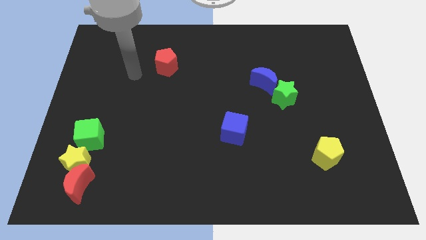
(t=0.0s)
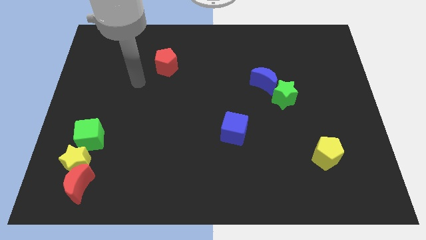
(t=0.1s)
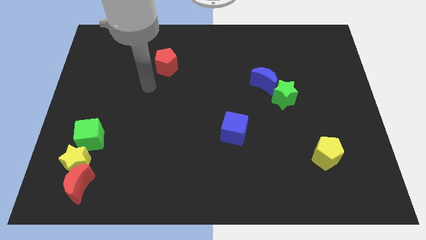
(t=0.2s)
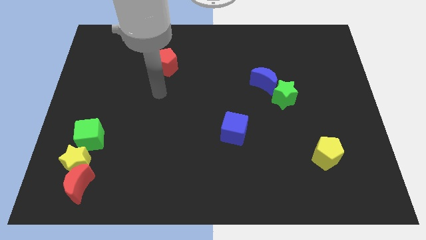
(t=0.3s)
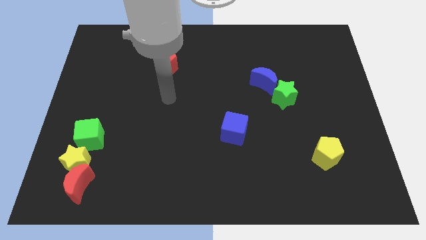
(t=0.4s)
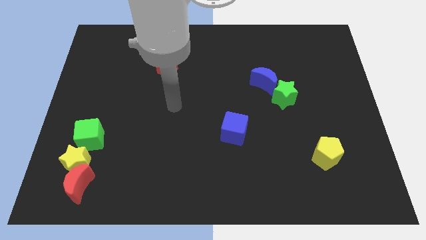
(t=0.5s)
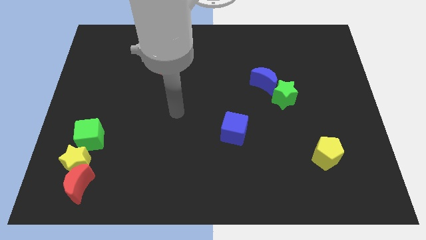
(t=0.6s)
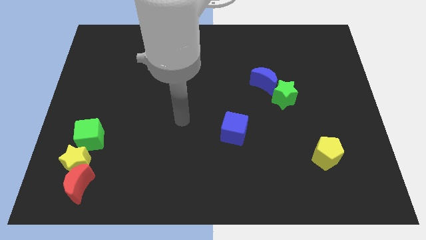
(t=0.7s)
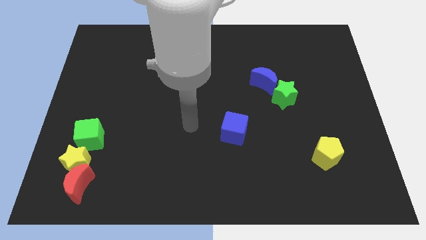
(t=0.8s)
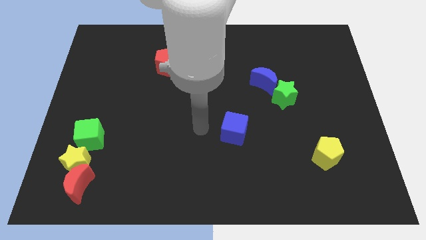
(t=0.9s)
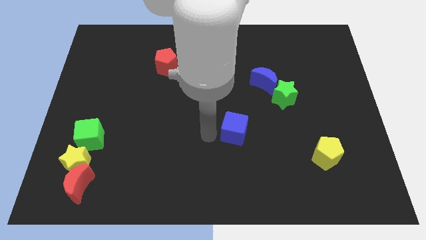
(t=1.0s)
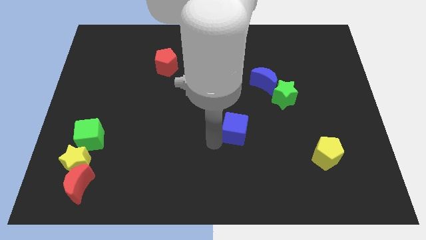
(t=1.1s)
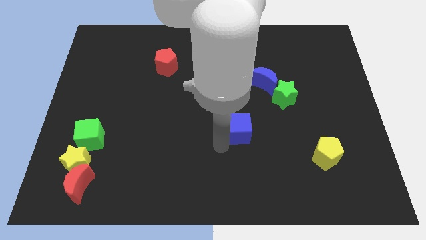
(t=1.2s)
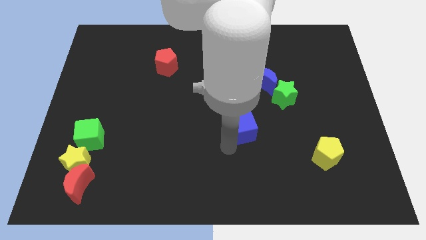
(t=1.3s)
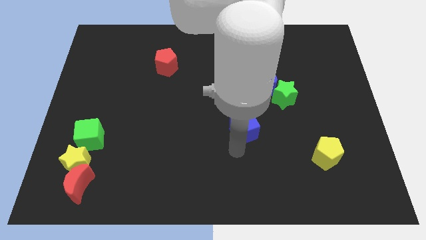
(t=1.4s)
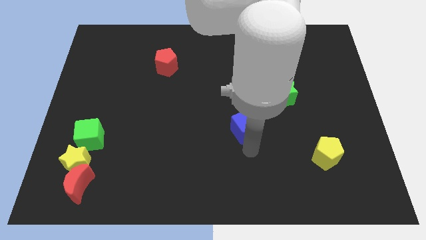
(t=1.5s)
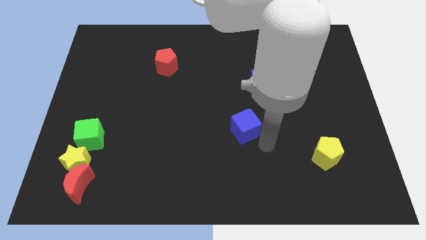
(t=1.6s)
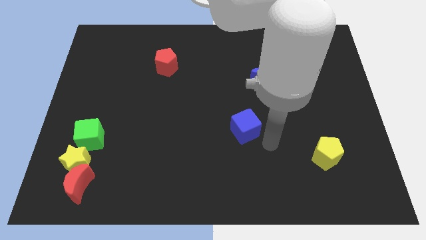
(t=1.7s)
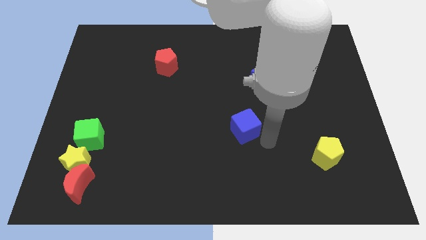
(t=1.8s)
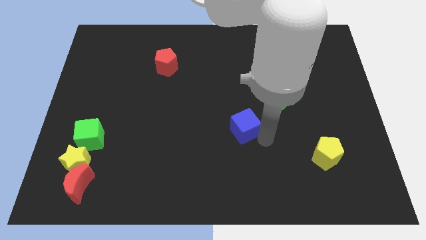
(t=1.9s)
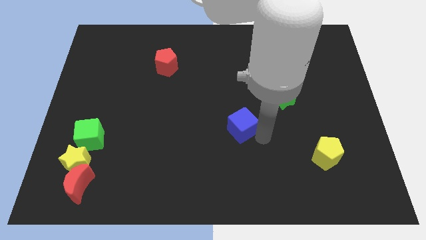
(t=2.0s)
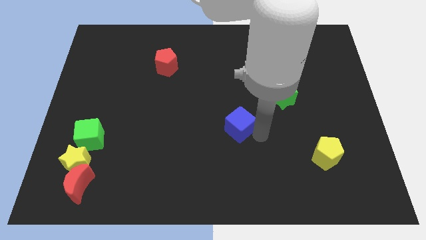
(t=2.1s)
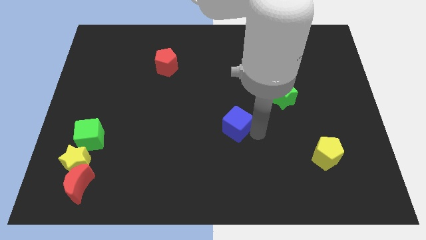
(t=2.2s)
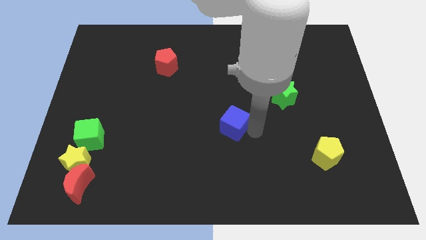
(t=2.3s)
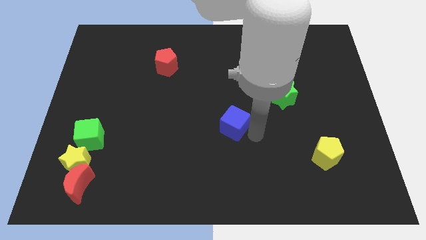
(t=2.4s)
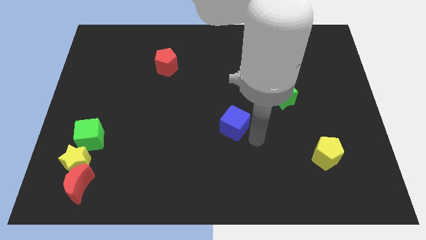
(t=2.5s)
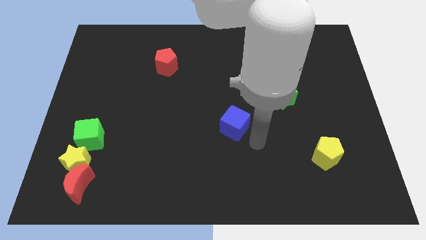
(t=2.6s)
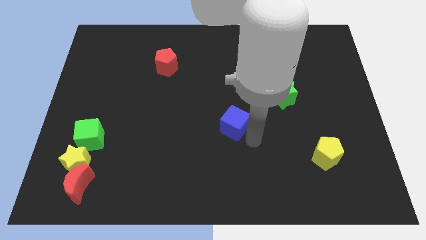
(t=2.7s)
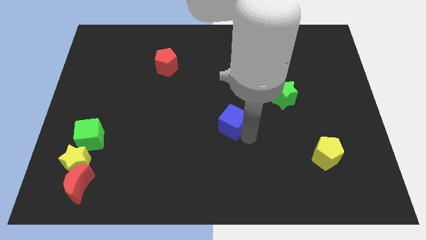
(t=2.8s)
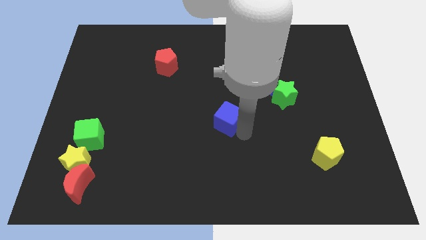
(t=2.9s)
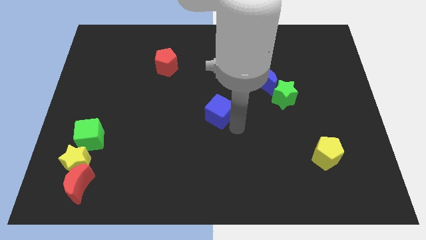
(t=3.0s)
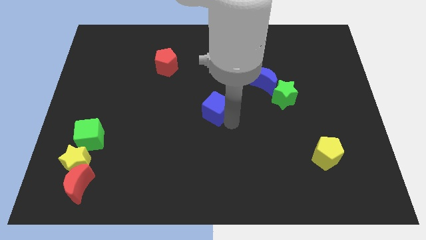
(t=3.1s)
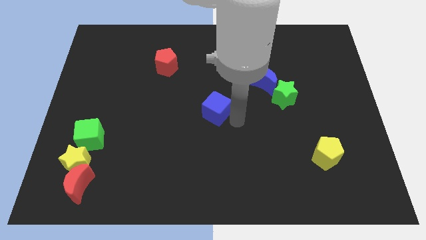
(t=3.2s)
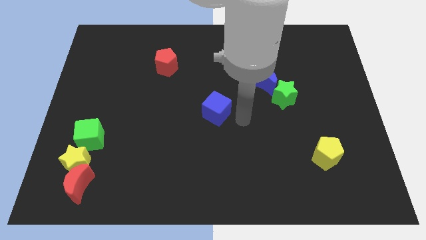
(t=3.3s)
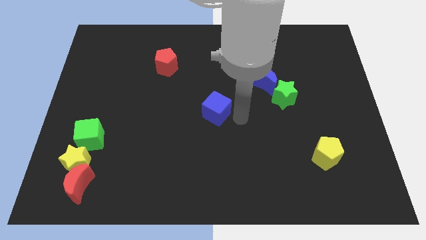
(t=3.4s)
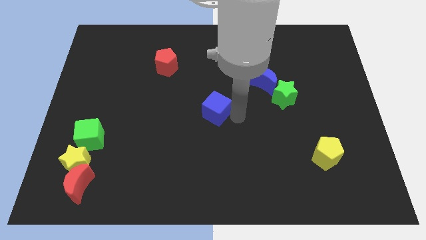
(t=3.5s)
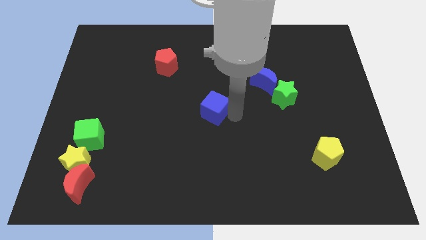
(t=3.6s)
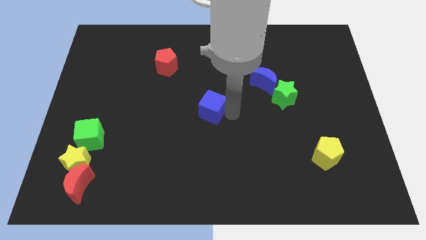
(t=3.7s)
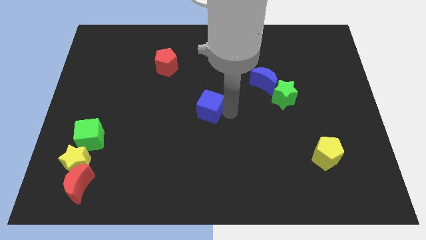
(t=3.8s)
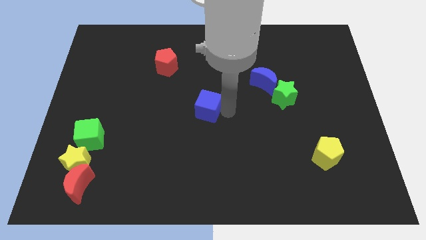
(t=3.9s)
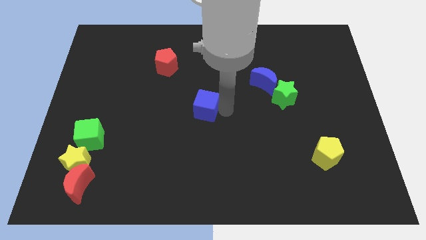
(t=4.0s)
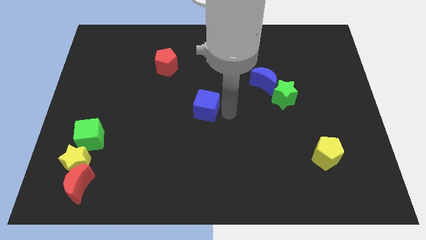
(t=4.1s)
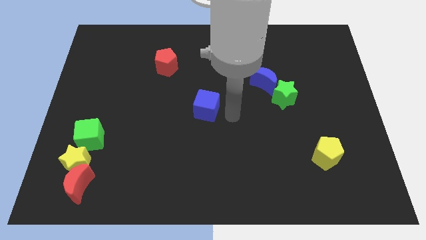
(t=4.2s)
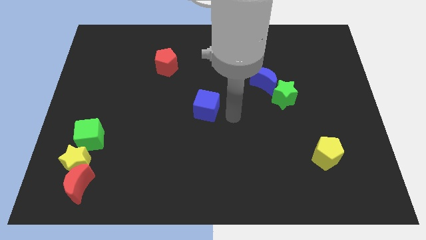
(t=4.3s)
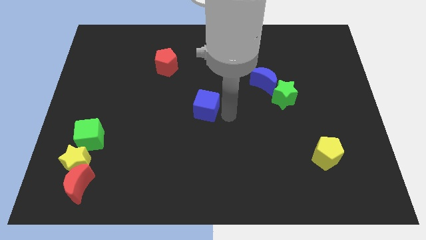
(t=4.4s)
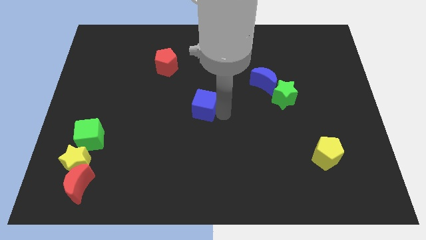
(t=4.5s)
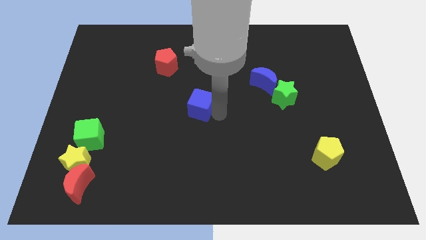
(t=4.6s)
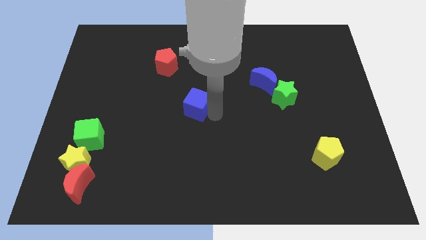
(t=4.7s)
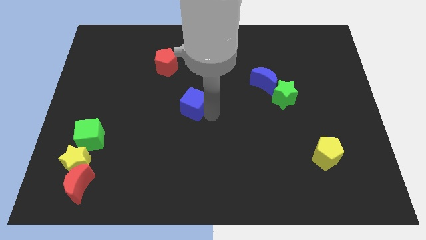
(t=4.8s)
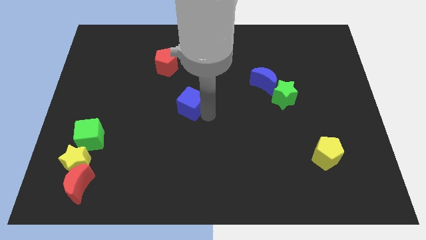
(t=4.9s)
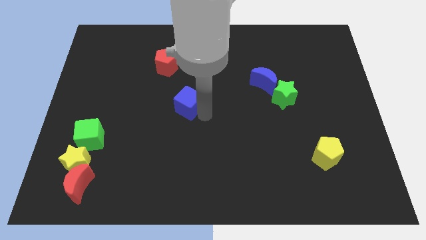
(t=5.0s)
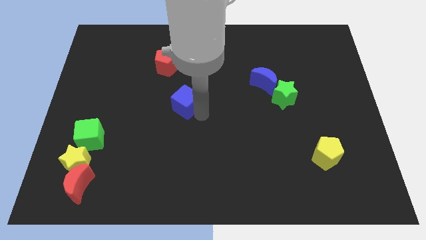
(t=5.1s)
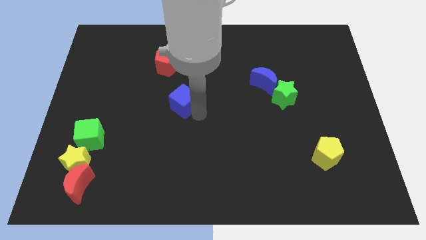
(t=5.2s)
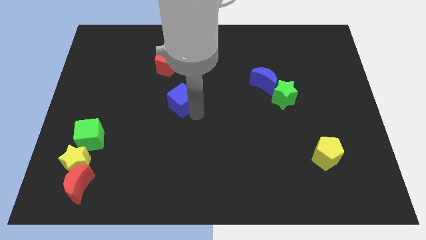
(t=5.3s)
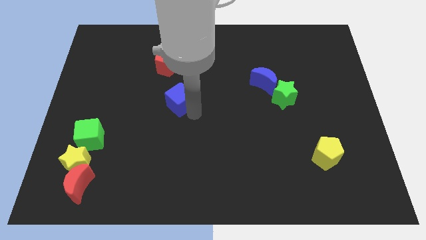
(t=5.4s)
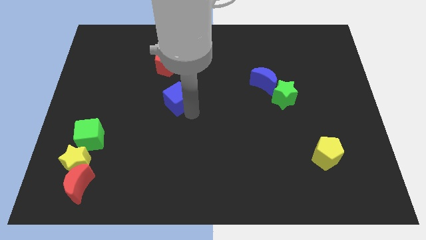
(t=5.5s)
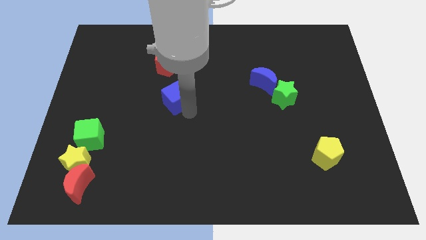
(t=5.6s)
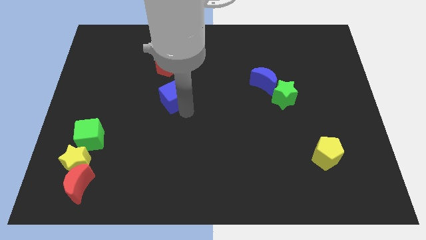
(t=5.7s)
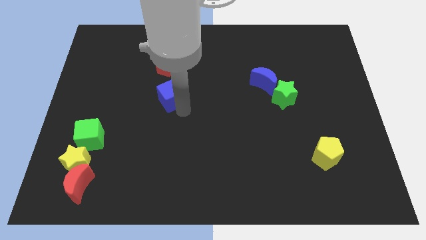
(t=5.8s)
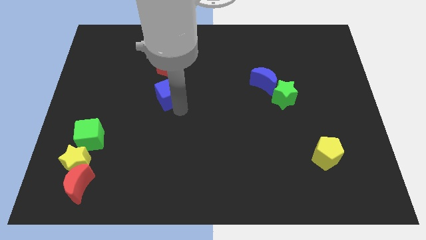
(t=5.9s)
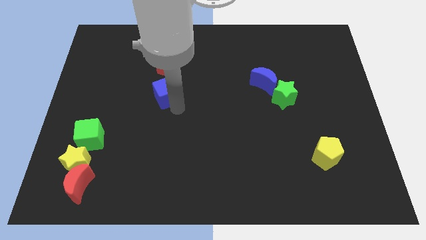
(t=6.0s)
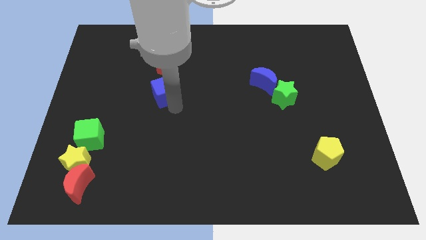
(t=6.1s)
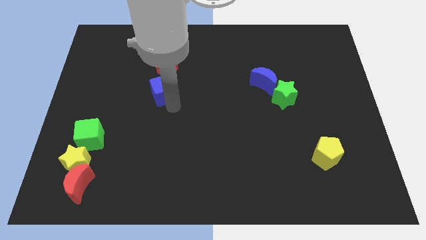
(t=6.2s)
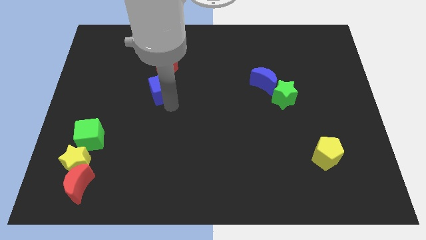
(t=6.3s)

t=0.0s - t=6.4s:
slide the blue cube upwards and to the left diagonally

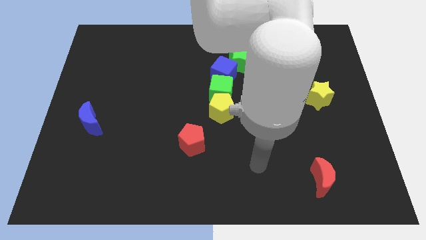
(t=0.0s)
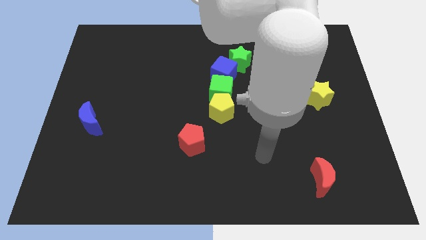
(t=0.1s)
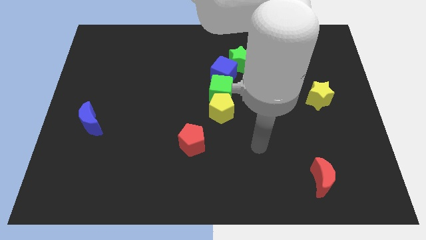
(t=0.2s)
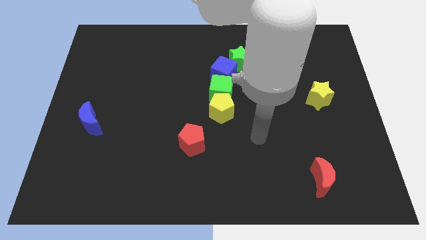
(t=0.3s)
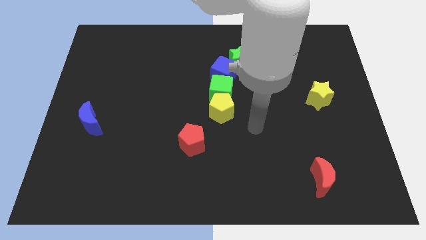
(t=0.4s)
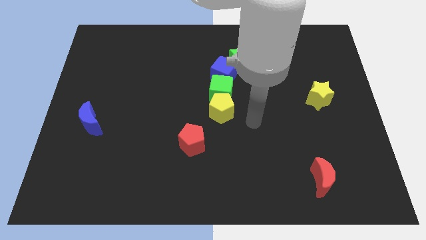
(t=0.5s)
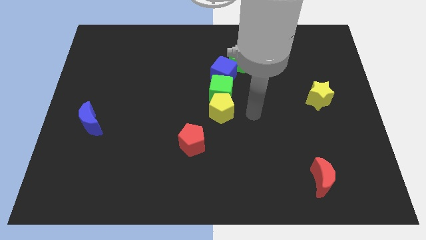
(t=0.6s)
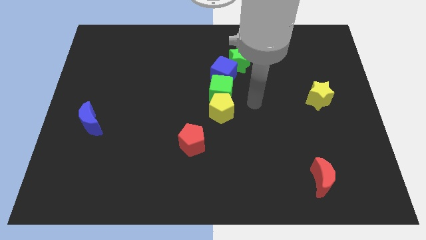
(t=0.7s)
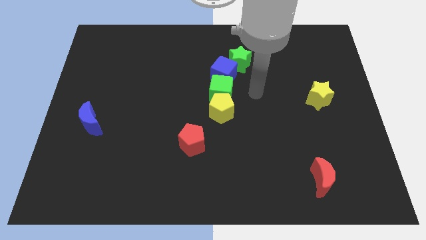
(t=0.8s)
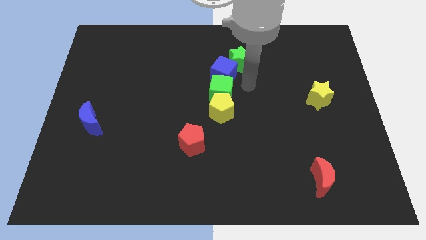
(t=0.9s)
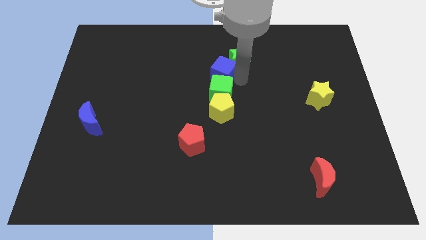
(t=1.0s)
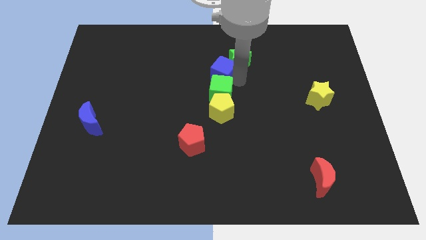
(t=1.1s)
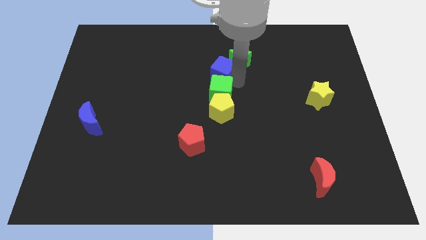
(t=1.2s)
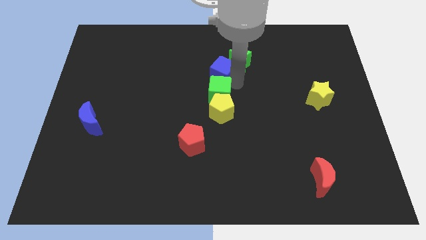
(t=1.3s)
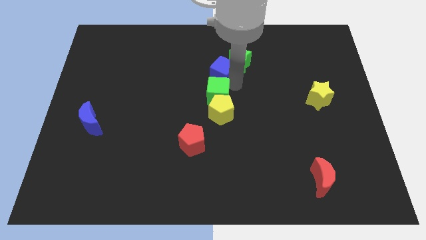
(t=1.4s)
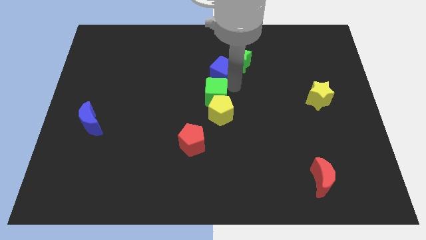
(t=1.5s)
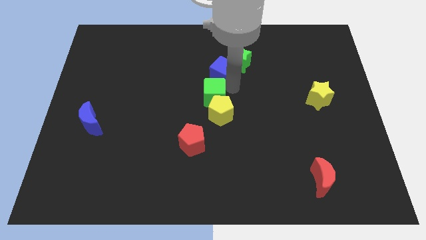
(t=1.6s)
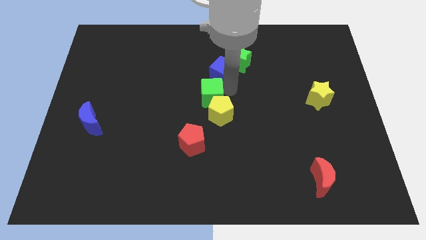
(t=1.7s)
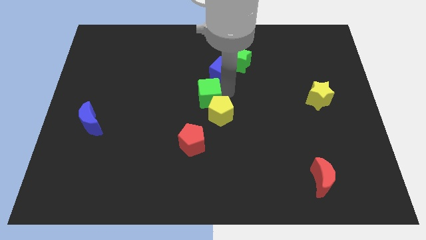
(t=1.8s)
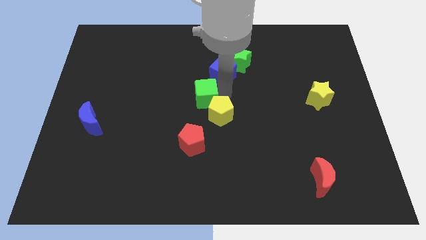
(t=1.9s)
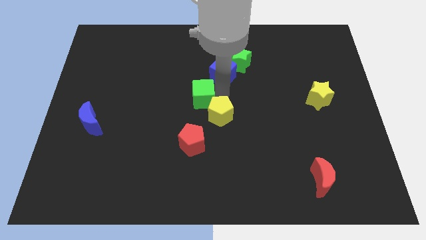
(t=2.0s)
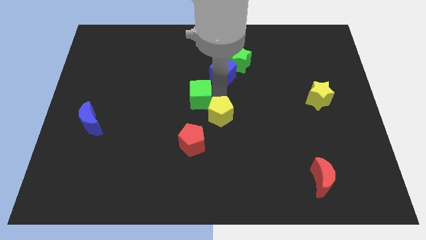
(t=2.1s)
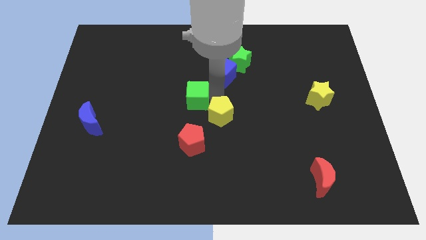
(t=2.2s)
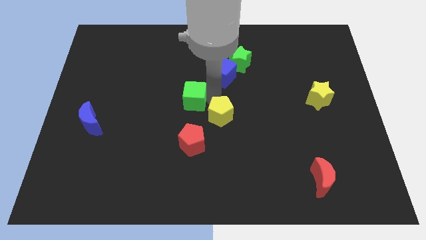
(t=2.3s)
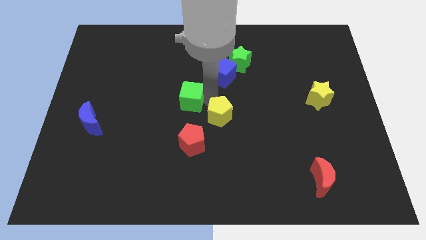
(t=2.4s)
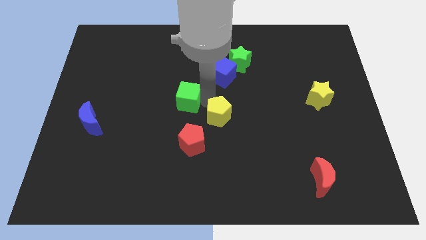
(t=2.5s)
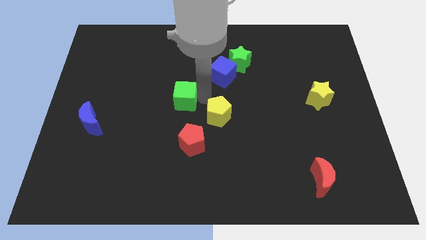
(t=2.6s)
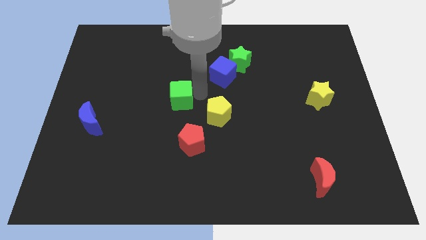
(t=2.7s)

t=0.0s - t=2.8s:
move the green cube a bit diagonally down and to the left
